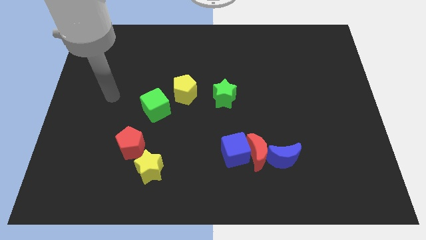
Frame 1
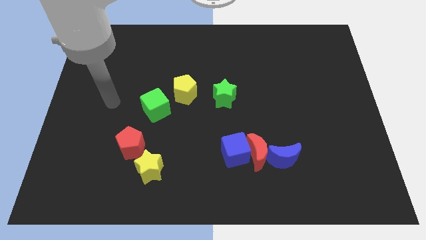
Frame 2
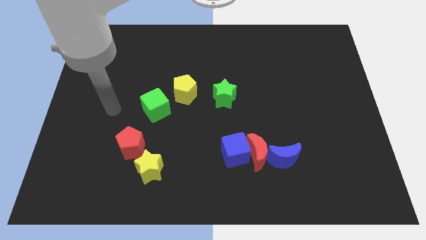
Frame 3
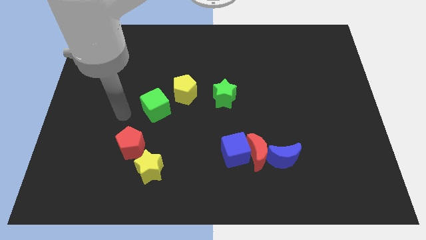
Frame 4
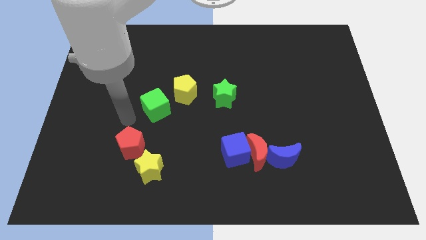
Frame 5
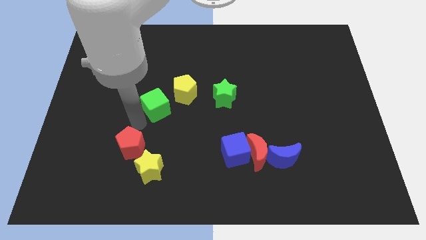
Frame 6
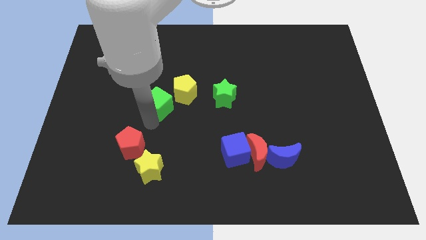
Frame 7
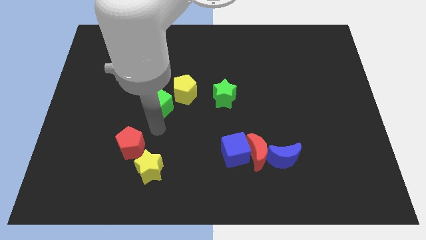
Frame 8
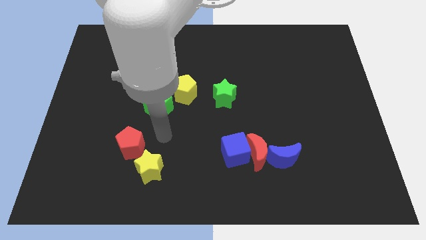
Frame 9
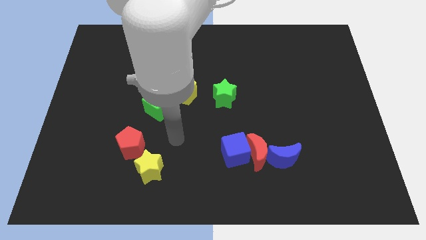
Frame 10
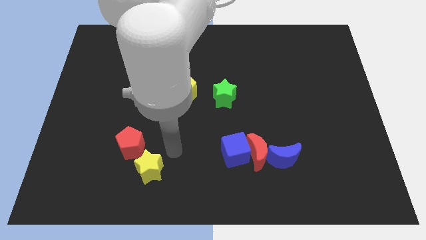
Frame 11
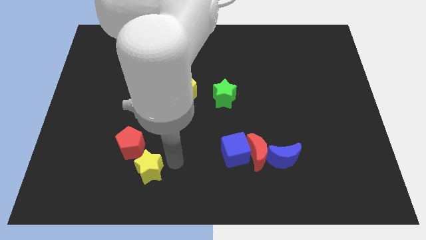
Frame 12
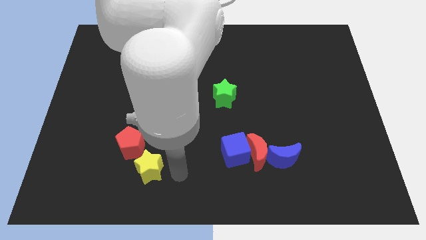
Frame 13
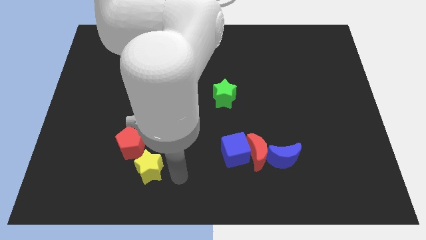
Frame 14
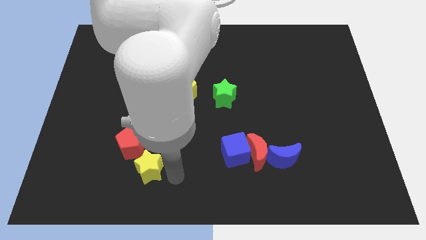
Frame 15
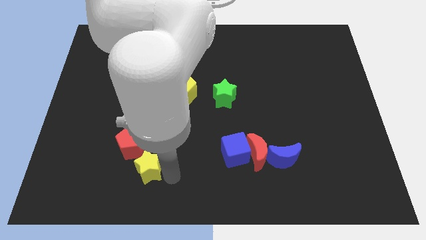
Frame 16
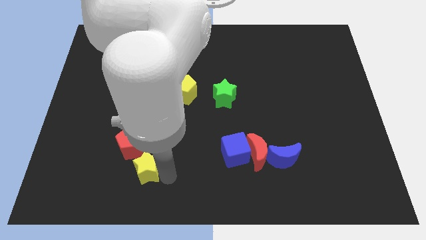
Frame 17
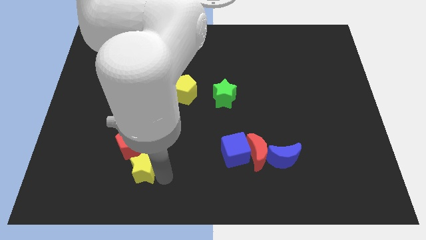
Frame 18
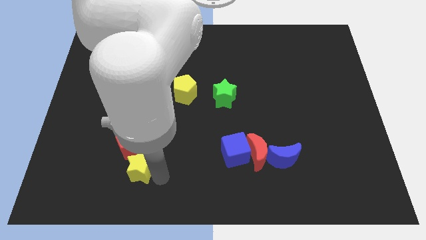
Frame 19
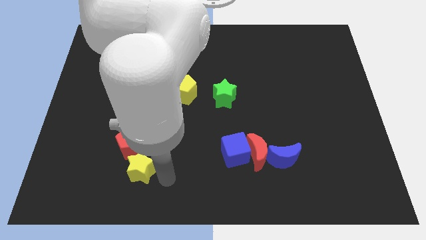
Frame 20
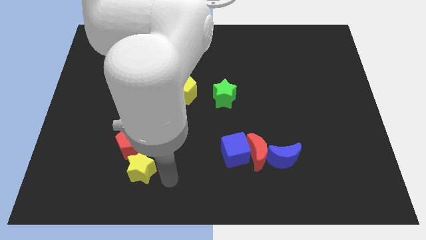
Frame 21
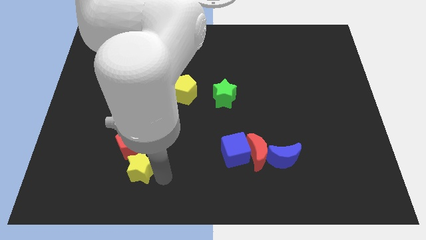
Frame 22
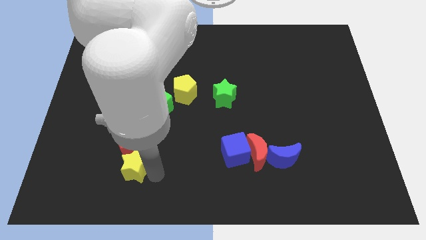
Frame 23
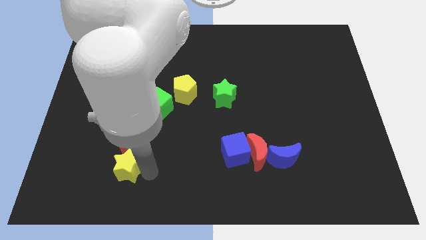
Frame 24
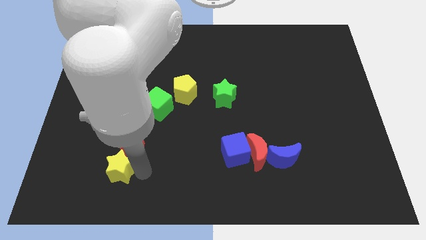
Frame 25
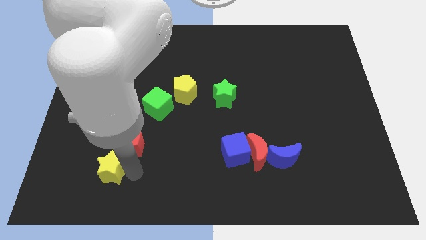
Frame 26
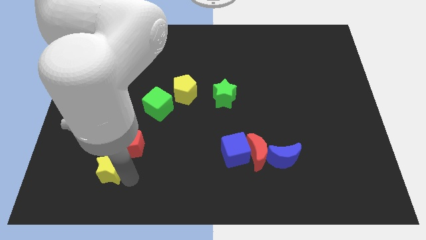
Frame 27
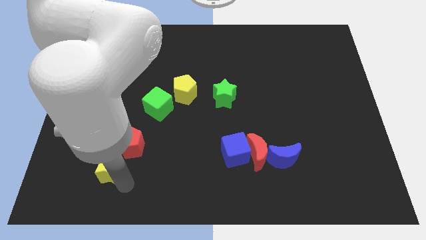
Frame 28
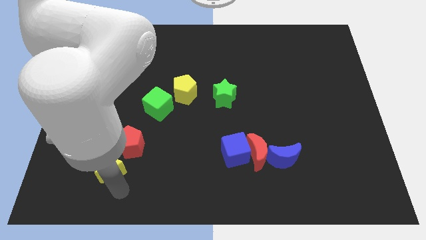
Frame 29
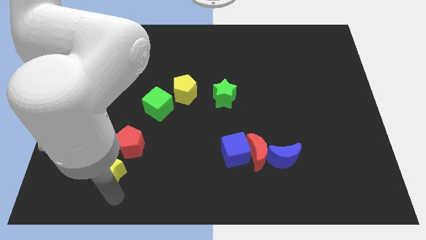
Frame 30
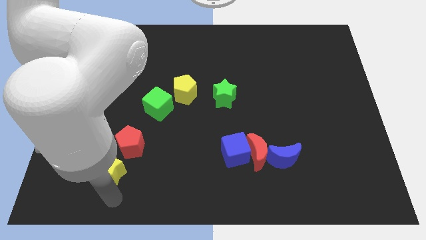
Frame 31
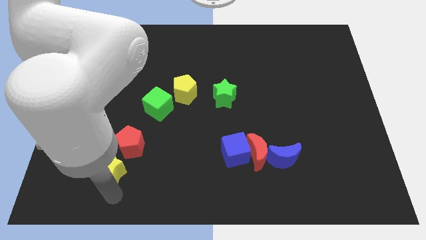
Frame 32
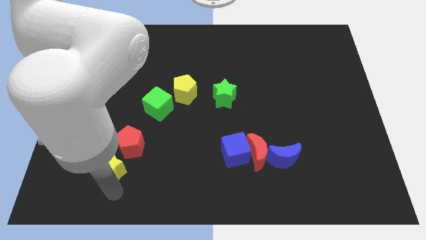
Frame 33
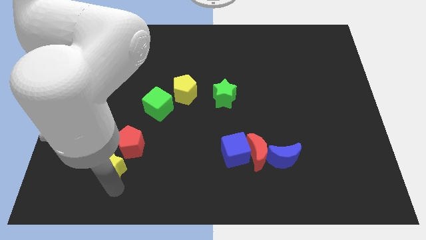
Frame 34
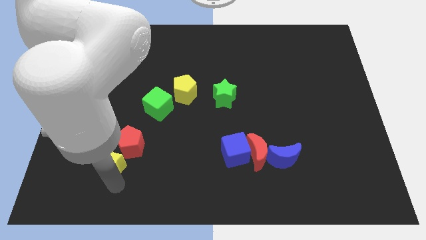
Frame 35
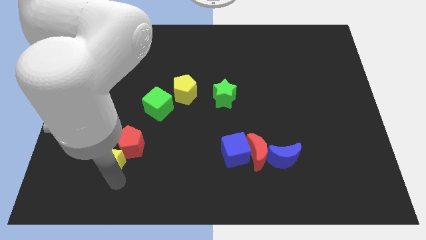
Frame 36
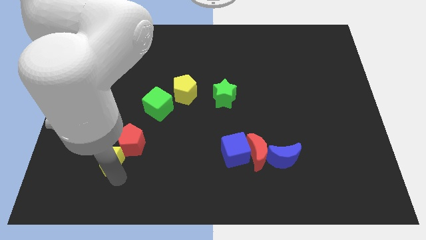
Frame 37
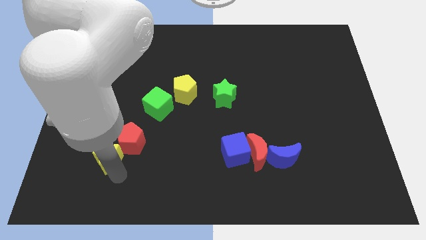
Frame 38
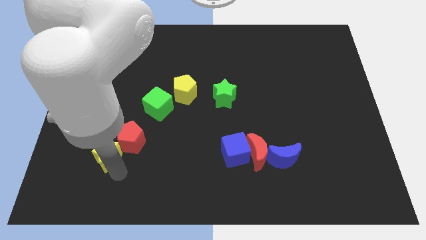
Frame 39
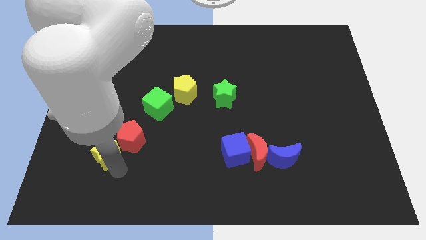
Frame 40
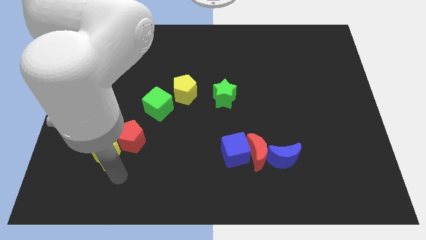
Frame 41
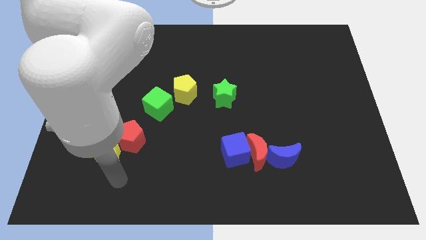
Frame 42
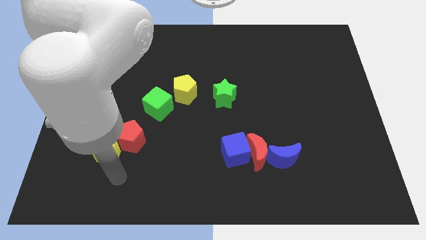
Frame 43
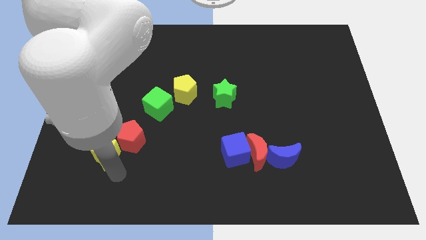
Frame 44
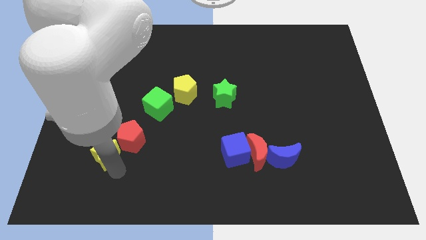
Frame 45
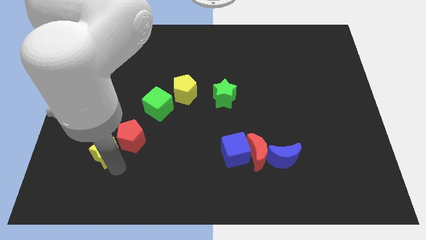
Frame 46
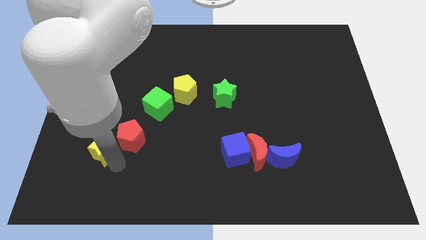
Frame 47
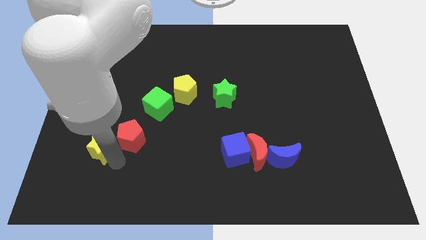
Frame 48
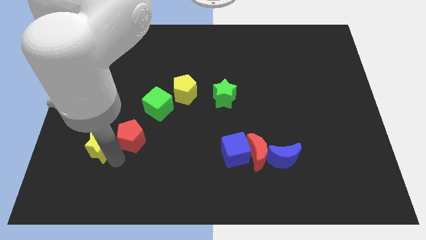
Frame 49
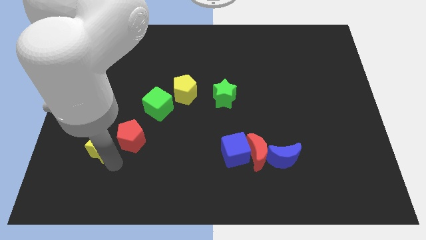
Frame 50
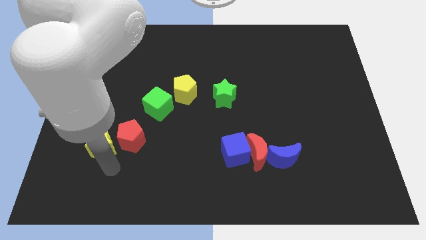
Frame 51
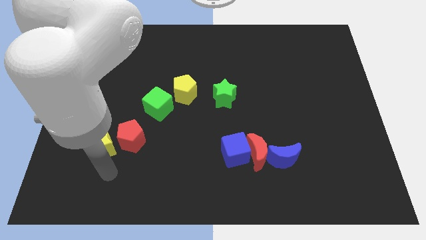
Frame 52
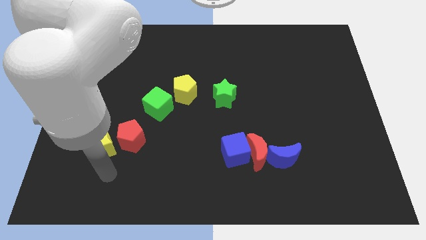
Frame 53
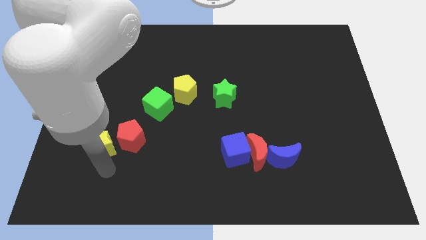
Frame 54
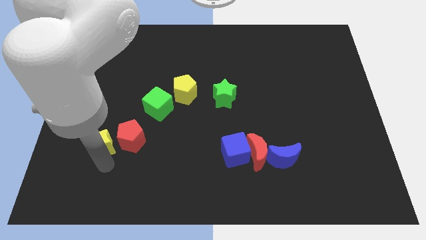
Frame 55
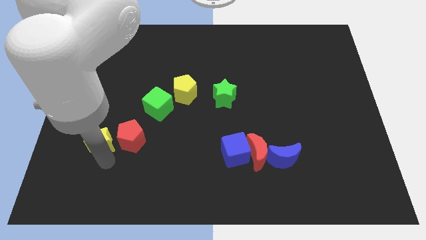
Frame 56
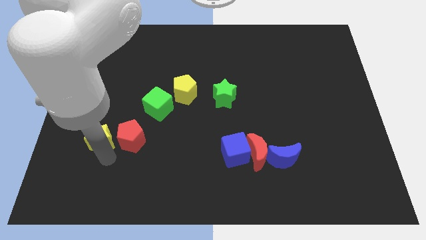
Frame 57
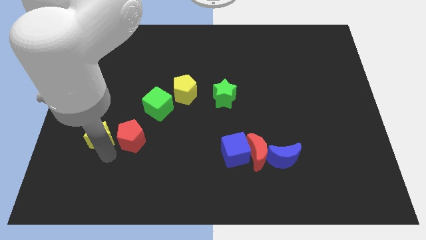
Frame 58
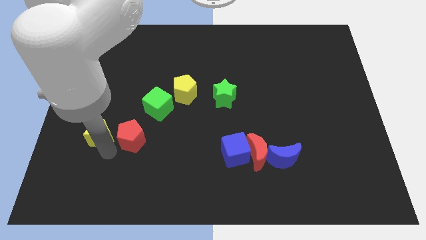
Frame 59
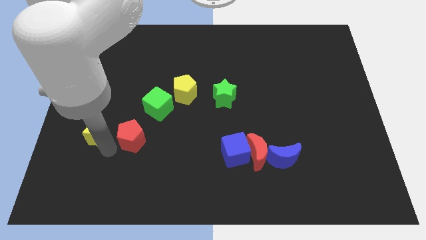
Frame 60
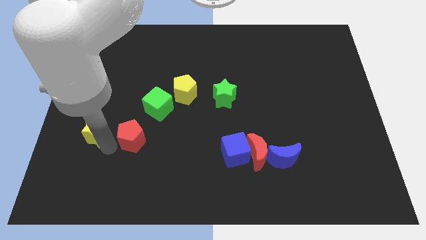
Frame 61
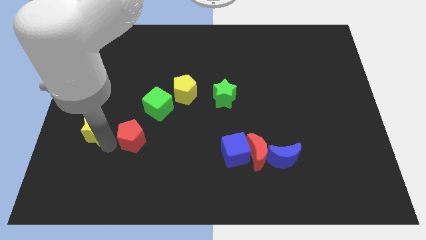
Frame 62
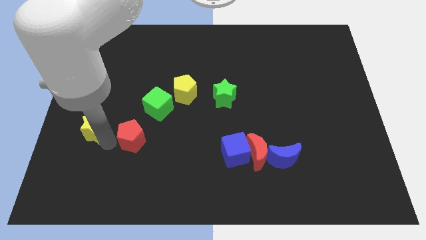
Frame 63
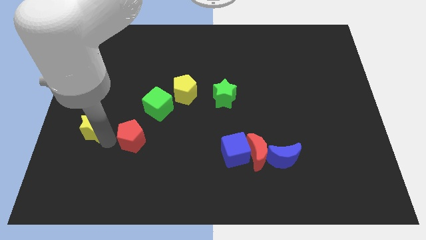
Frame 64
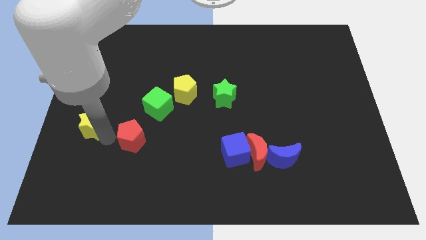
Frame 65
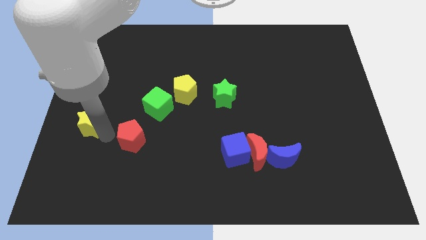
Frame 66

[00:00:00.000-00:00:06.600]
put the yellow star to the center left

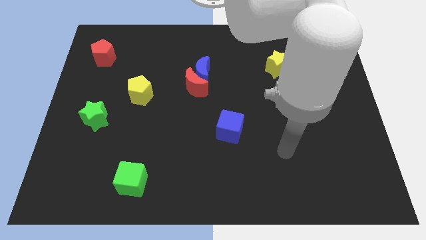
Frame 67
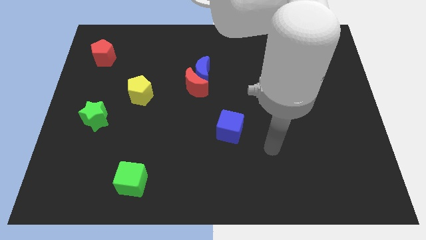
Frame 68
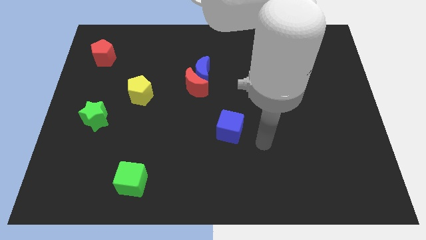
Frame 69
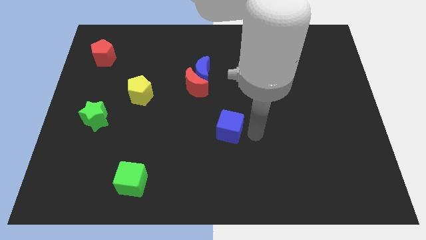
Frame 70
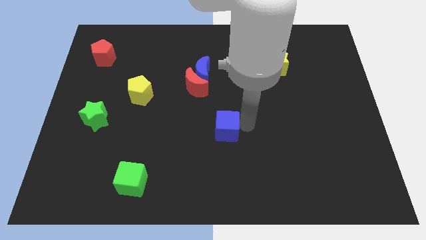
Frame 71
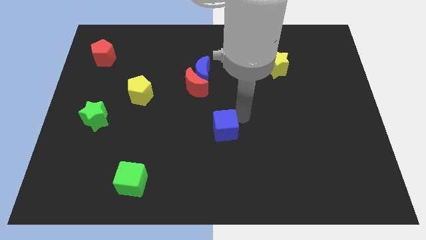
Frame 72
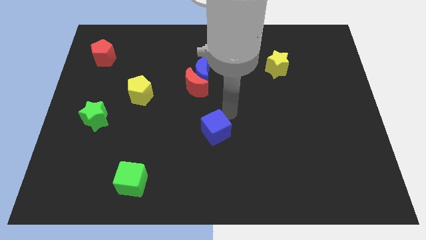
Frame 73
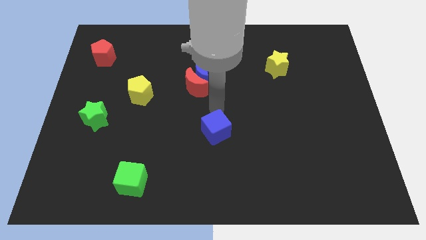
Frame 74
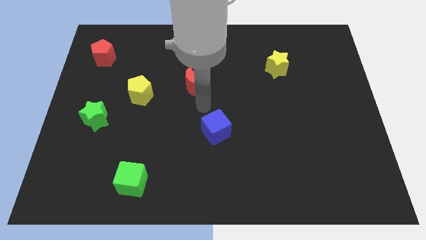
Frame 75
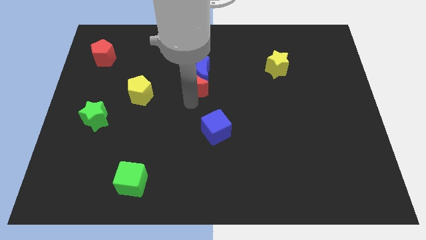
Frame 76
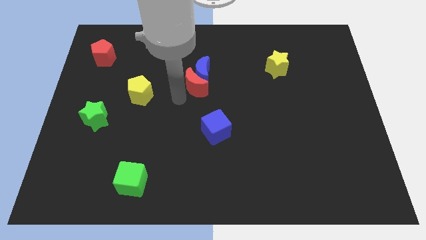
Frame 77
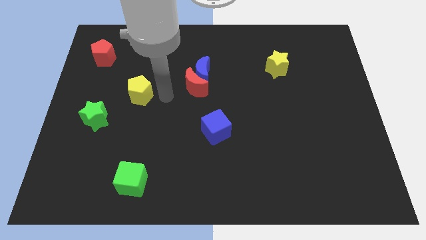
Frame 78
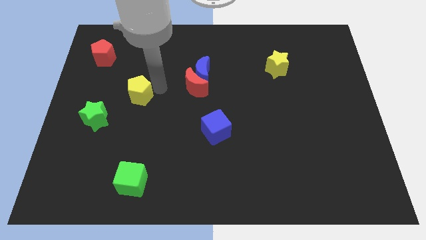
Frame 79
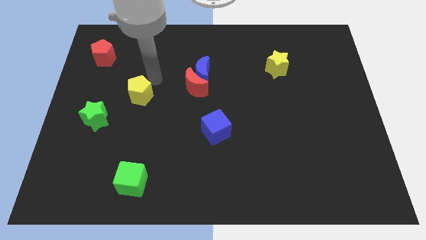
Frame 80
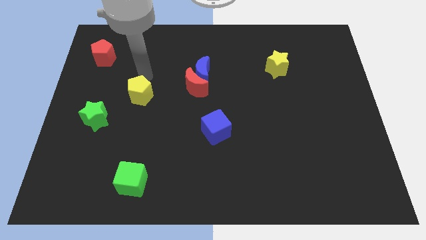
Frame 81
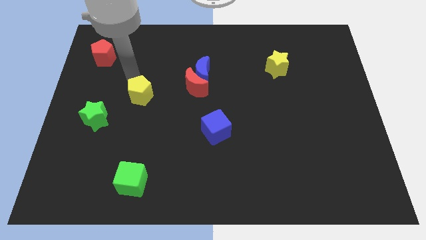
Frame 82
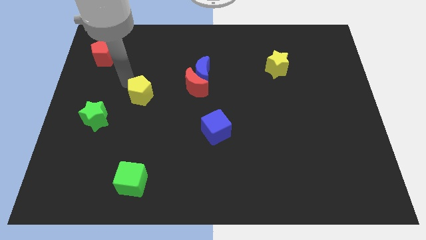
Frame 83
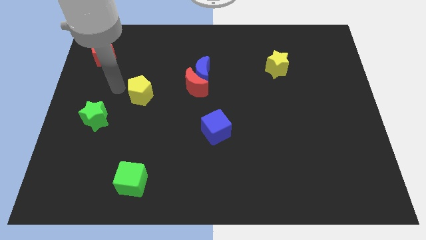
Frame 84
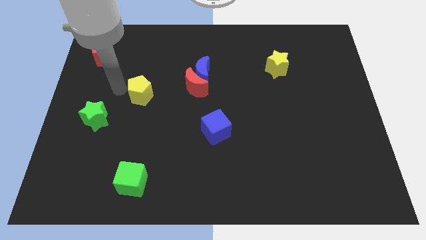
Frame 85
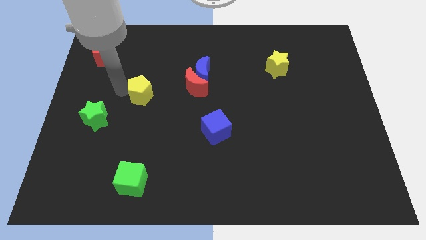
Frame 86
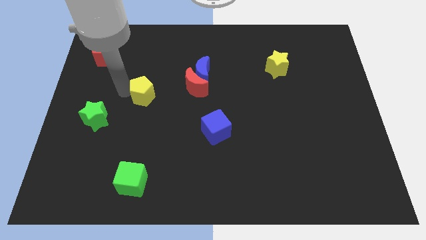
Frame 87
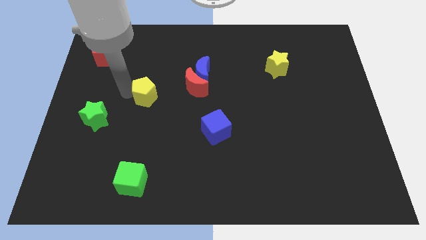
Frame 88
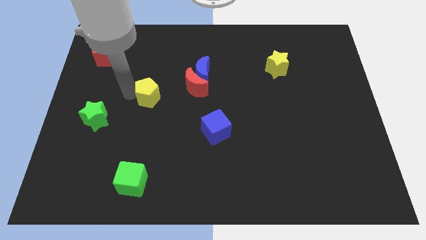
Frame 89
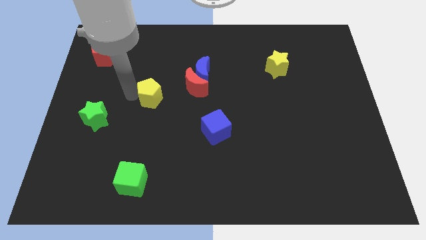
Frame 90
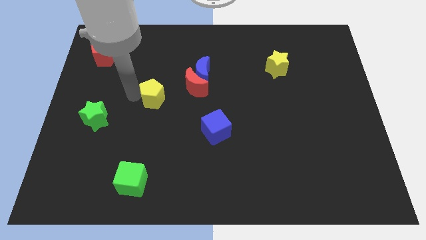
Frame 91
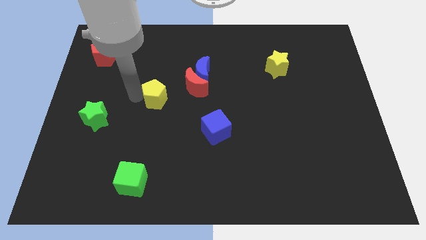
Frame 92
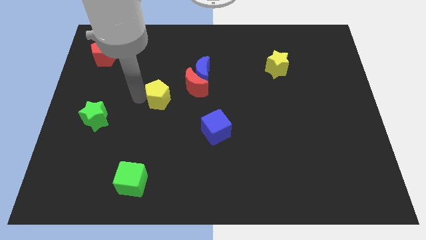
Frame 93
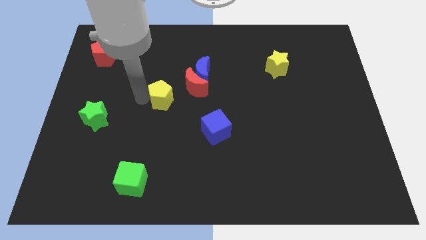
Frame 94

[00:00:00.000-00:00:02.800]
push the yellow pentagon to the middle of the board
